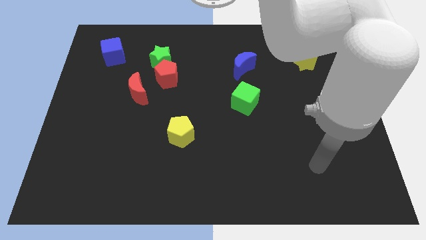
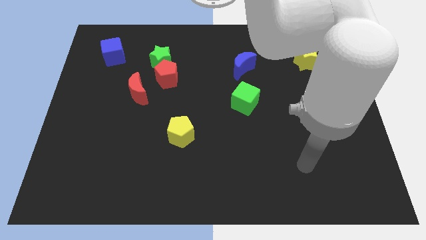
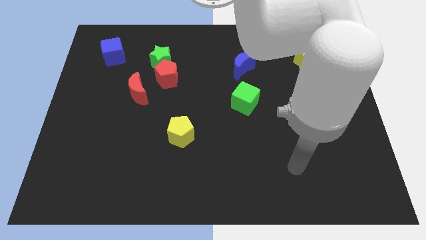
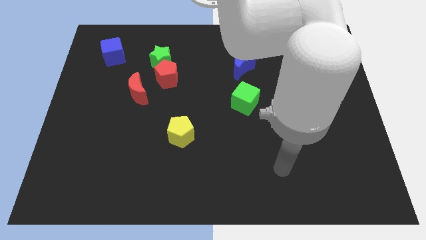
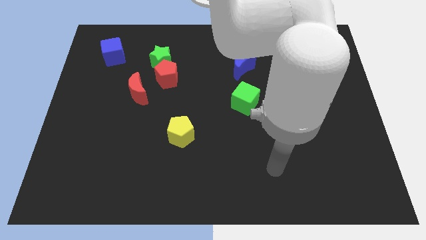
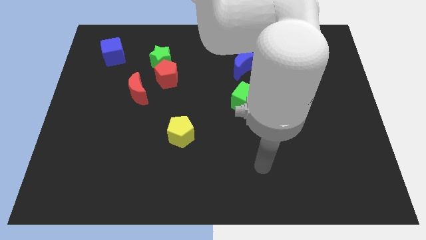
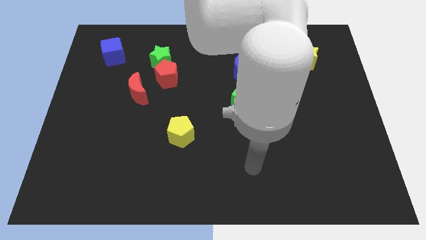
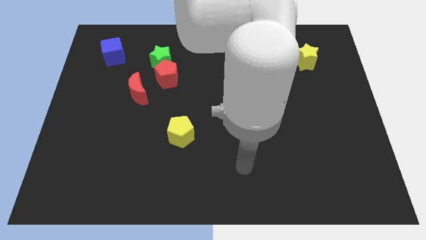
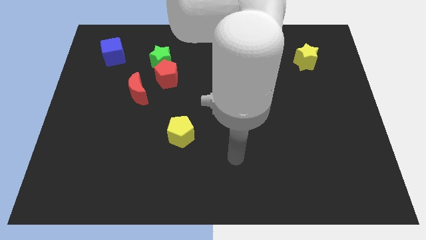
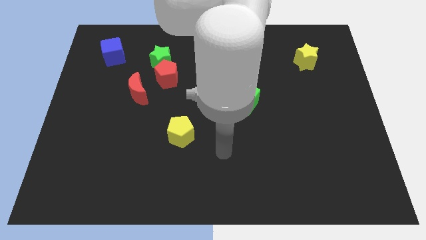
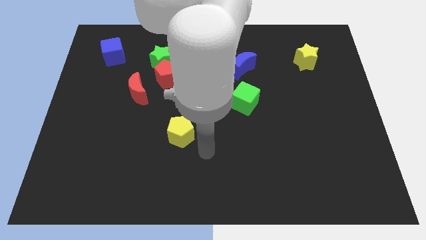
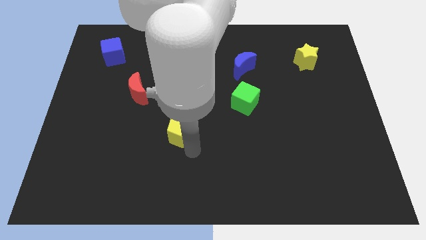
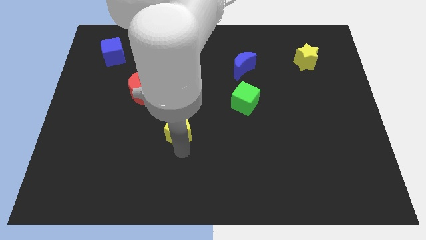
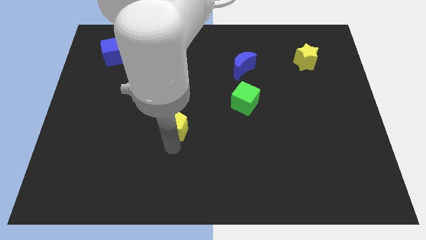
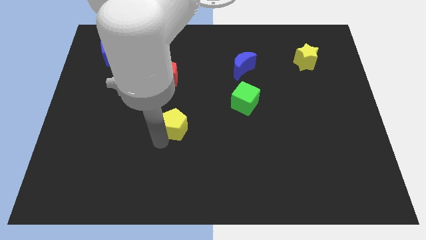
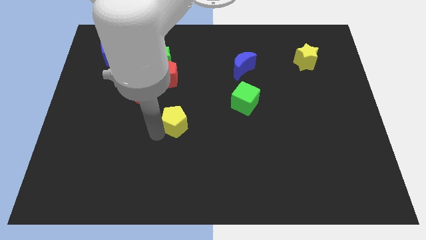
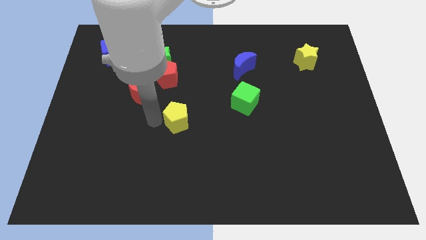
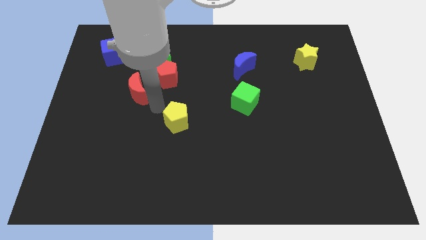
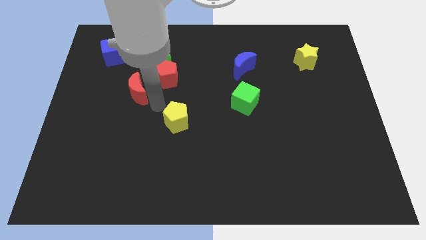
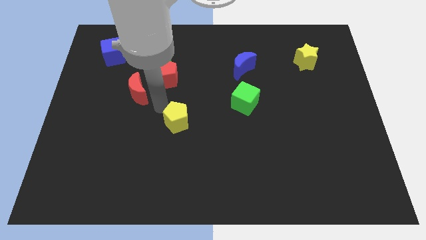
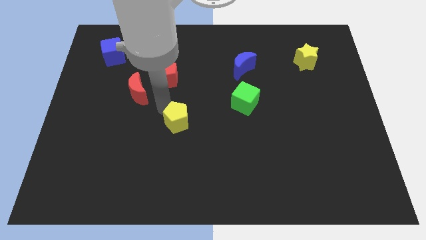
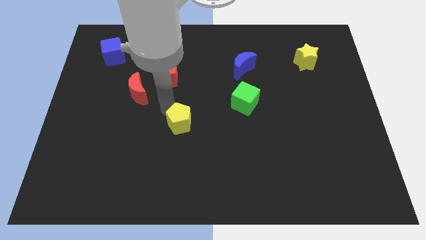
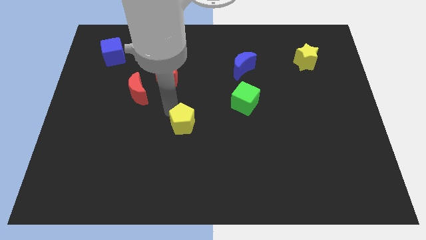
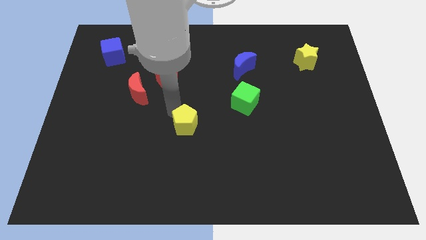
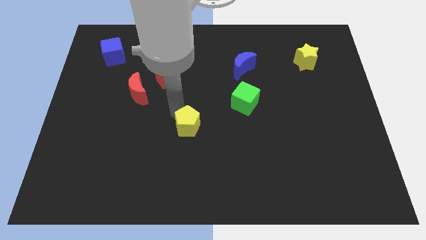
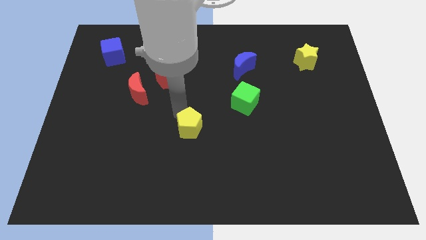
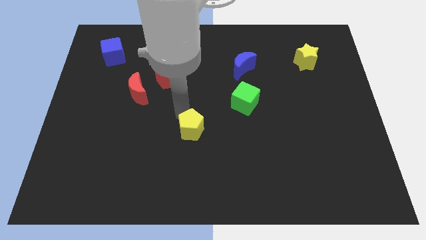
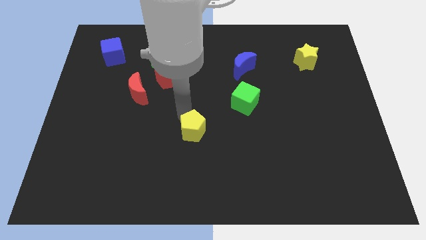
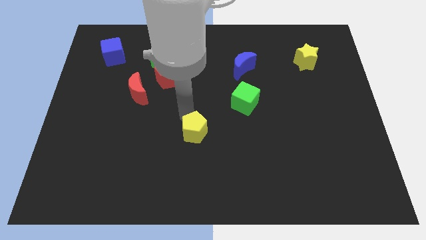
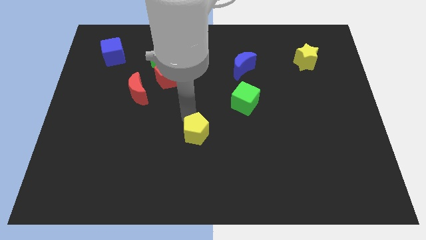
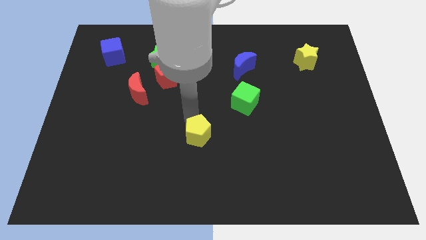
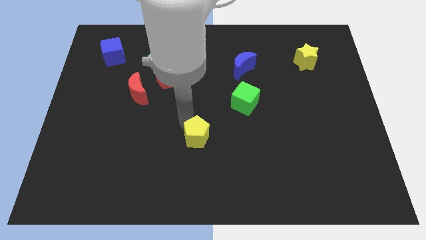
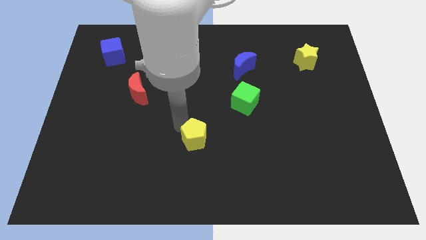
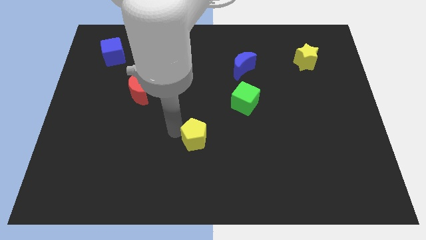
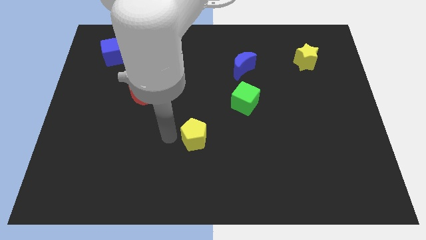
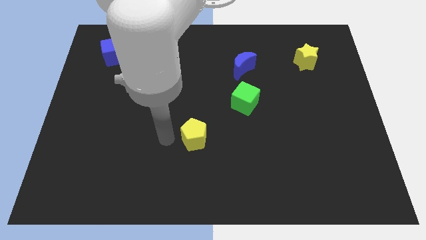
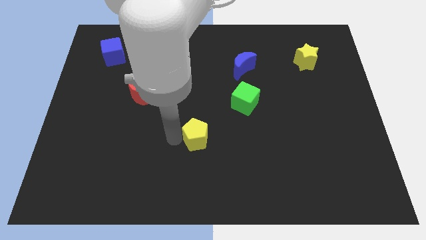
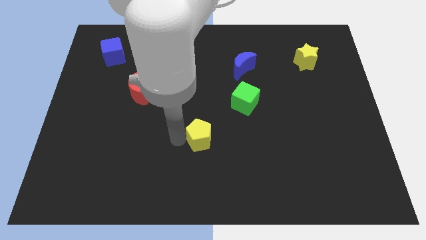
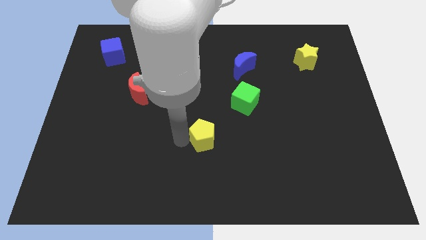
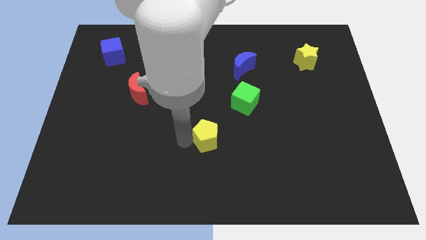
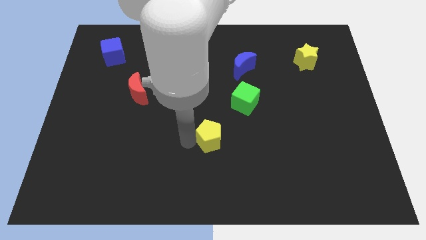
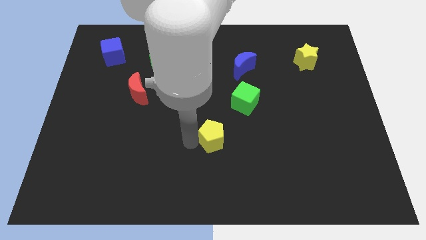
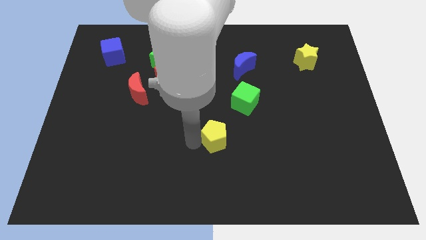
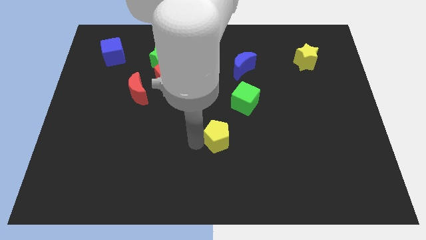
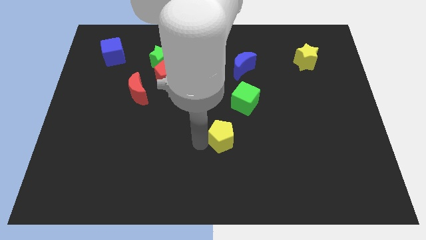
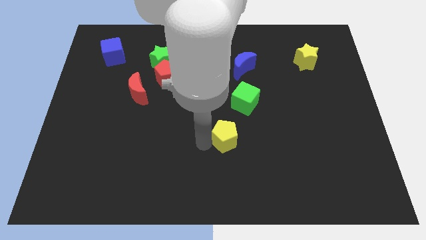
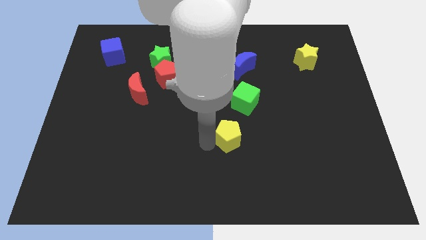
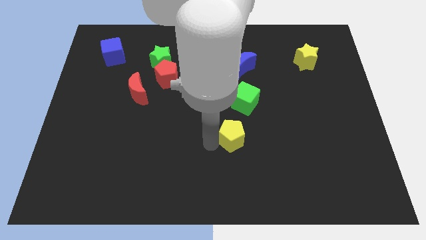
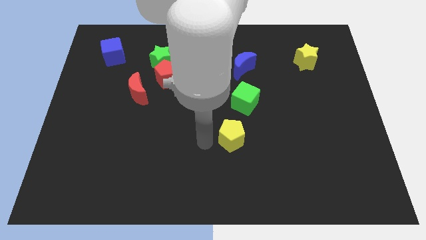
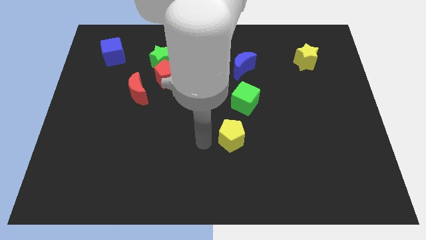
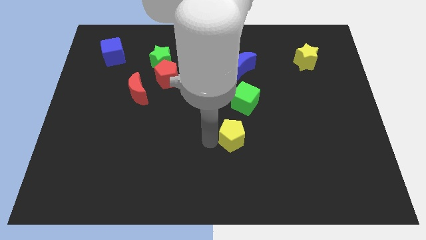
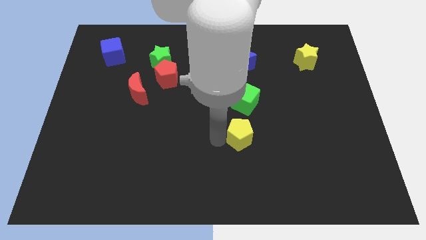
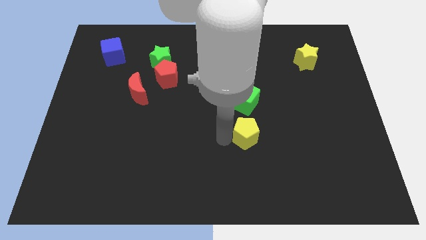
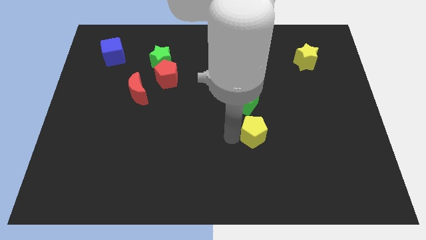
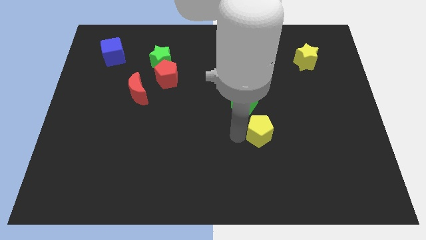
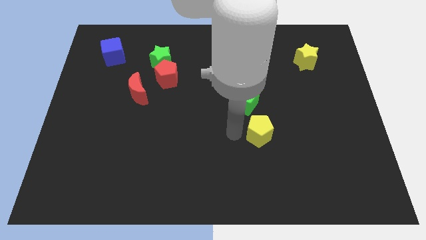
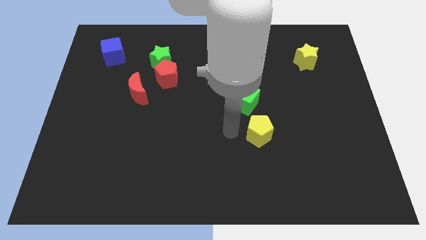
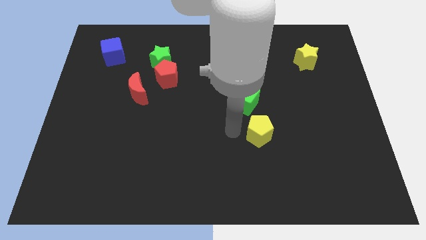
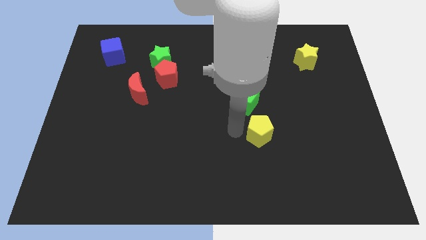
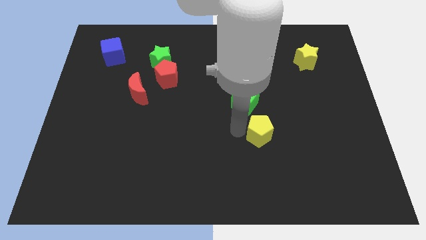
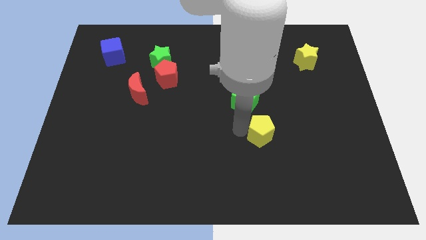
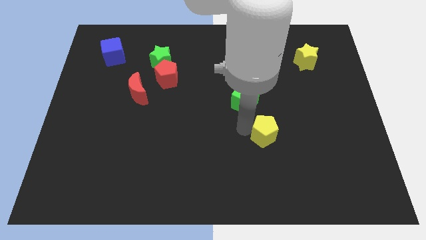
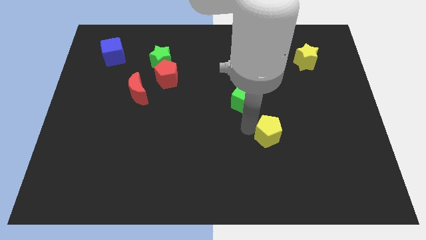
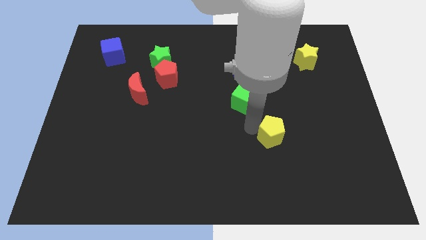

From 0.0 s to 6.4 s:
slide the yellow pentagon to the right

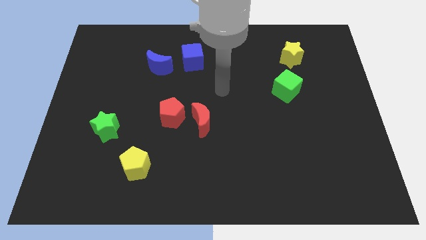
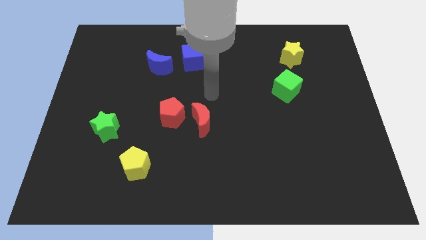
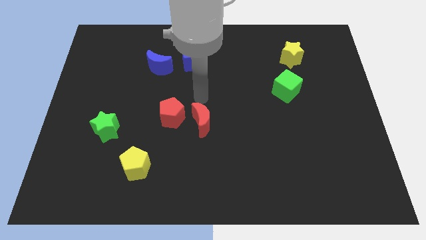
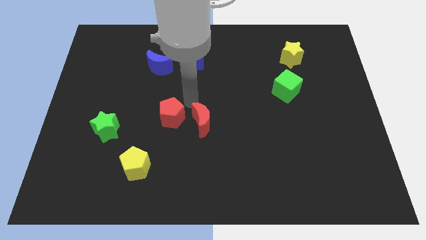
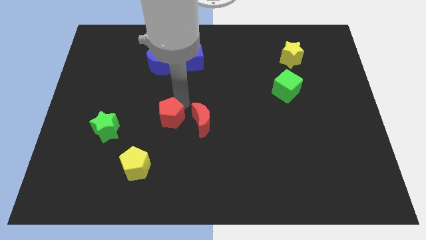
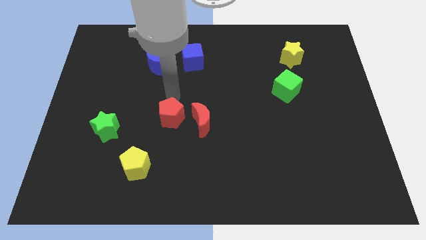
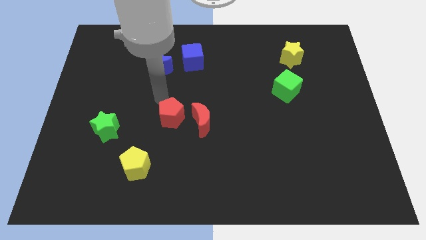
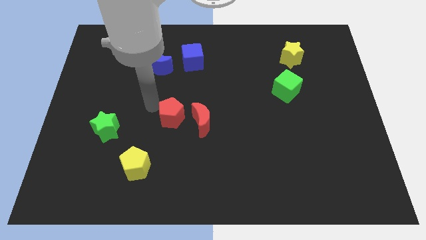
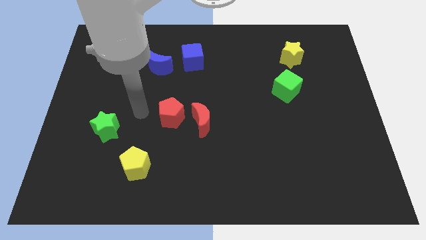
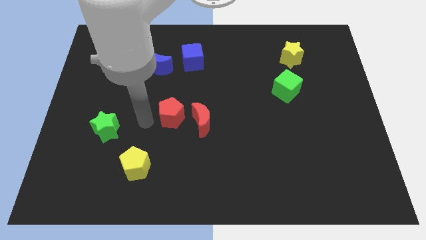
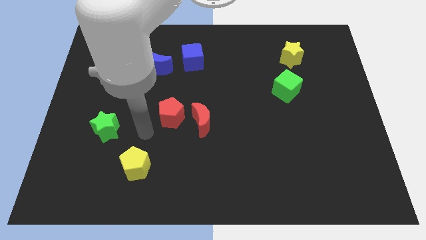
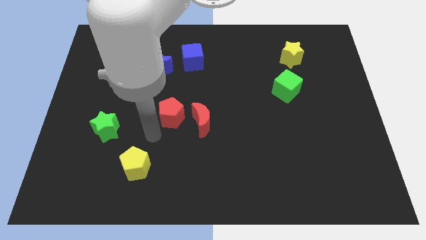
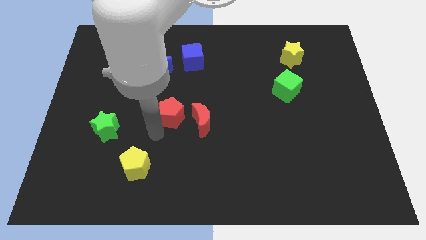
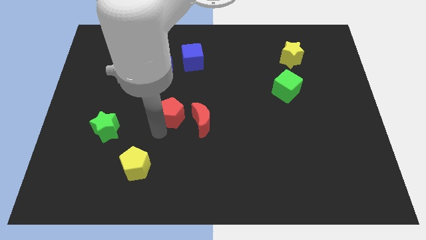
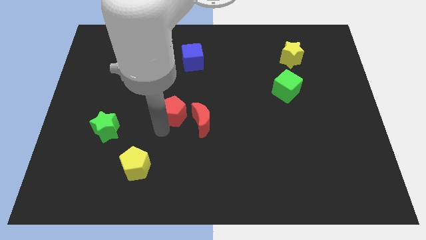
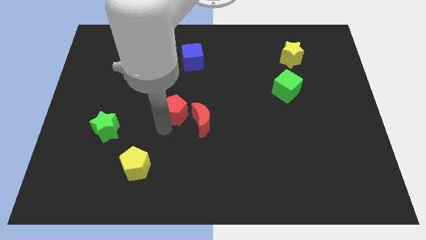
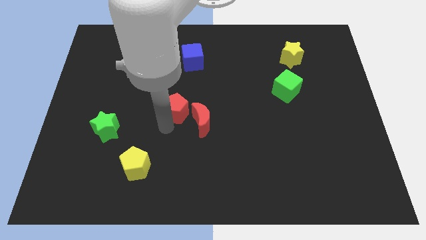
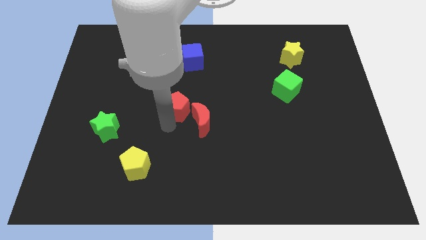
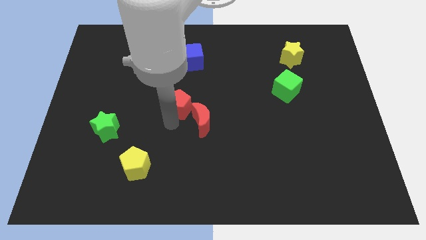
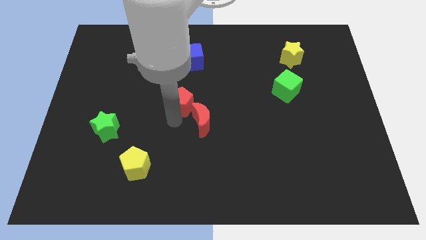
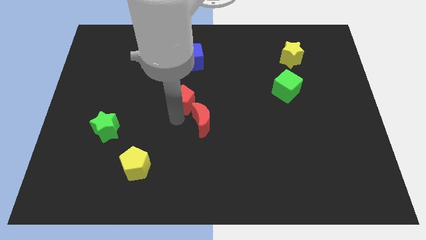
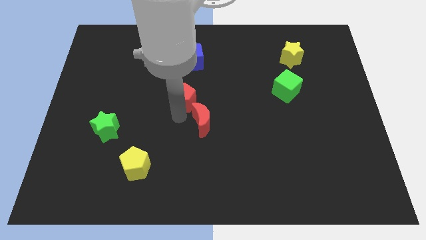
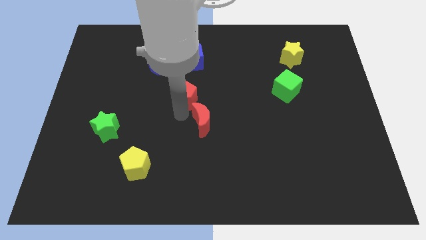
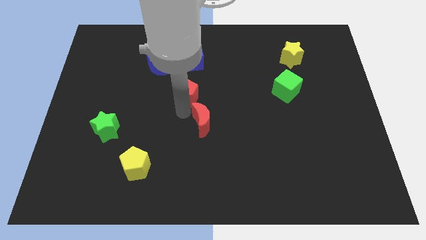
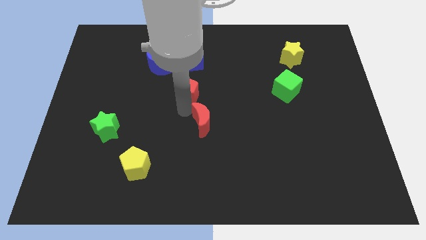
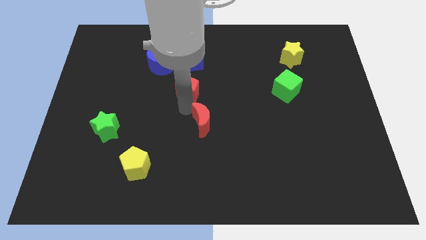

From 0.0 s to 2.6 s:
slightly push the red pentagon upwards and to the right

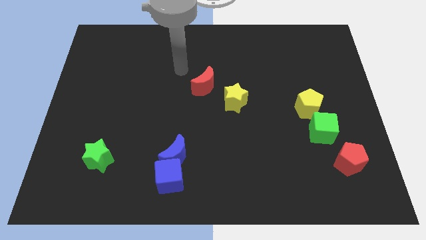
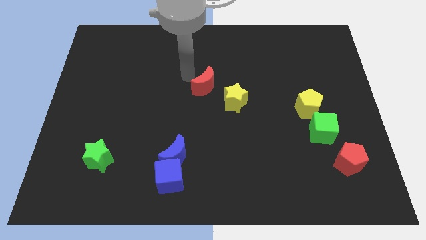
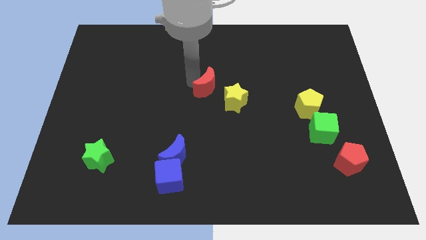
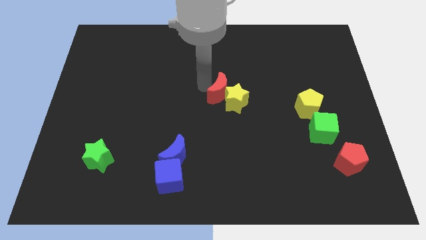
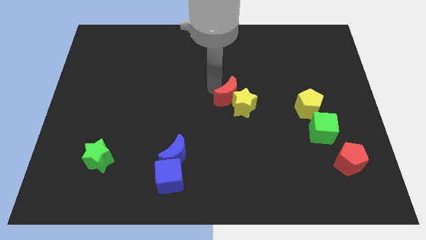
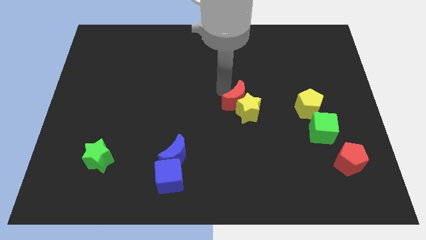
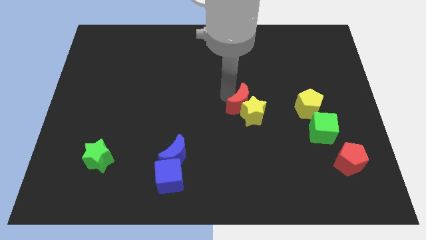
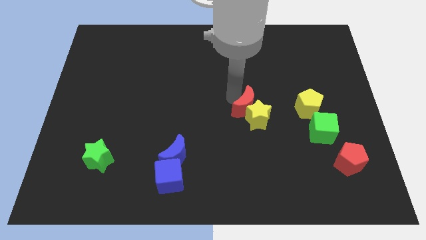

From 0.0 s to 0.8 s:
push the yellow star a little bit down and to the right
